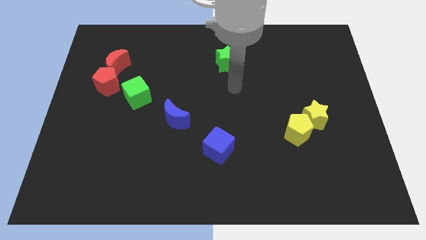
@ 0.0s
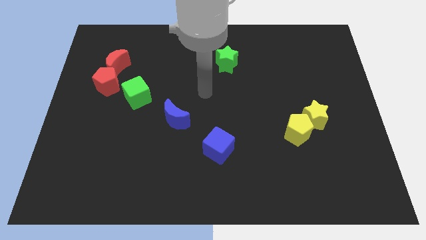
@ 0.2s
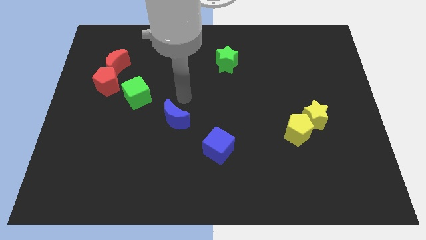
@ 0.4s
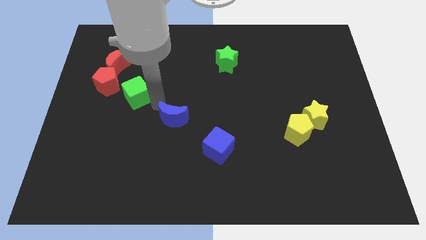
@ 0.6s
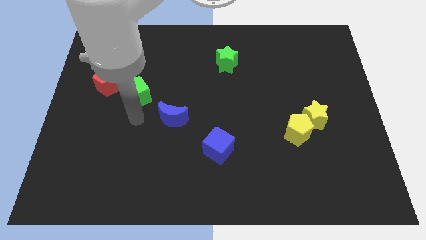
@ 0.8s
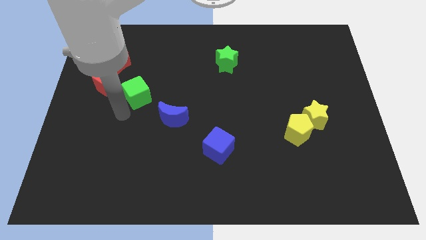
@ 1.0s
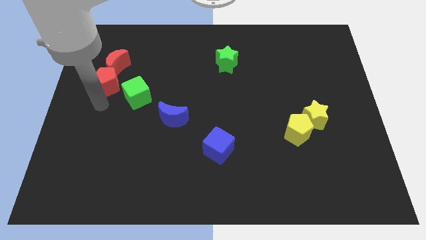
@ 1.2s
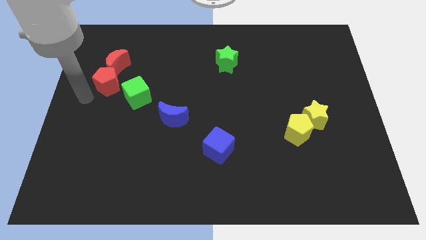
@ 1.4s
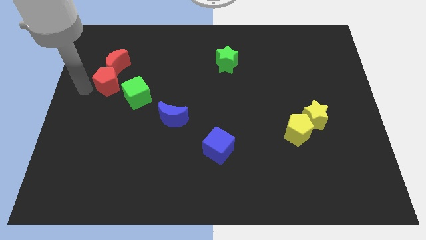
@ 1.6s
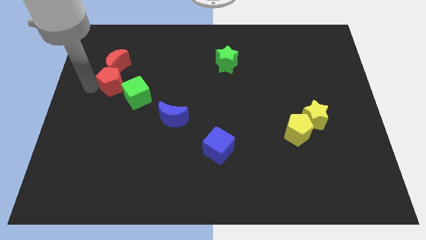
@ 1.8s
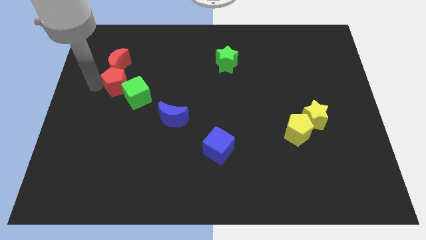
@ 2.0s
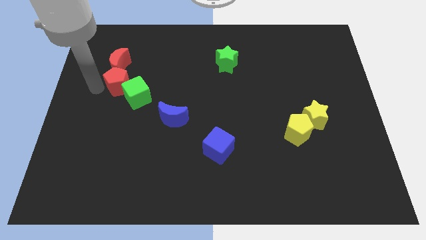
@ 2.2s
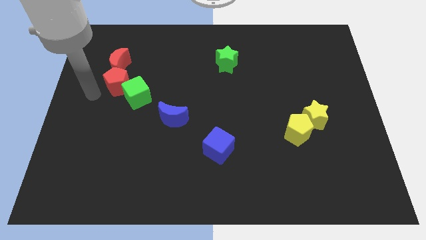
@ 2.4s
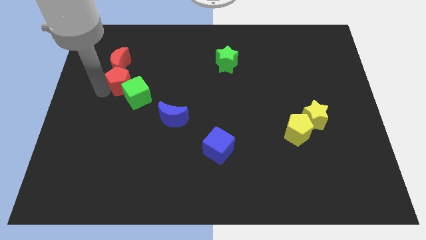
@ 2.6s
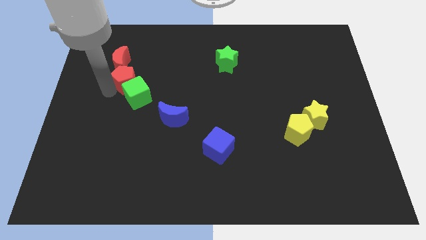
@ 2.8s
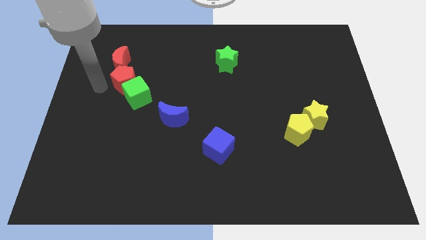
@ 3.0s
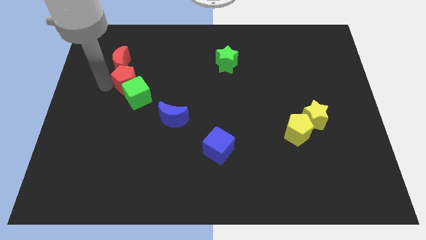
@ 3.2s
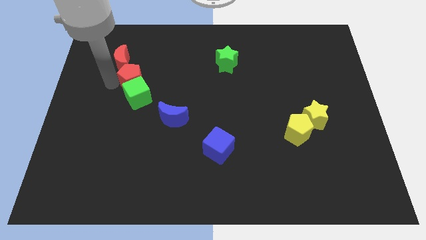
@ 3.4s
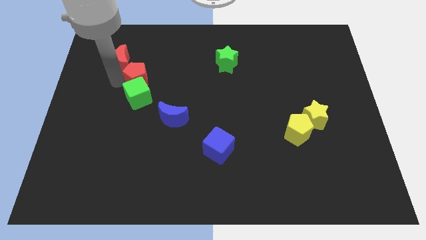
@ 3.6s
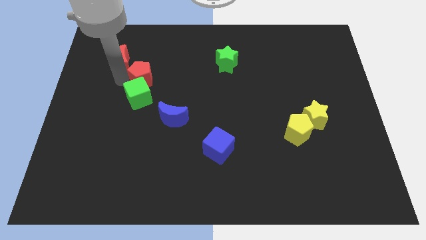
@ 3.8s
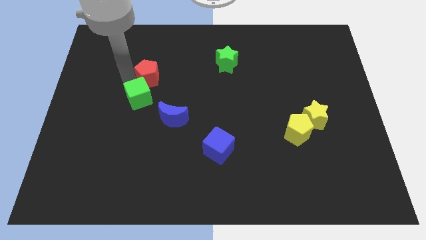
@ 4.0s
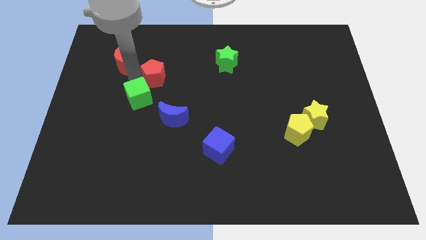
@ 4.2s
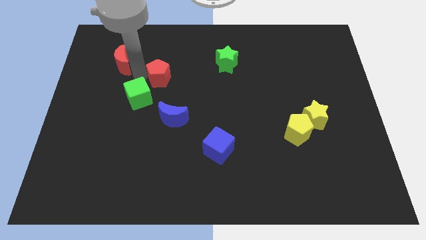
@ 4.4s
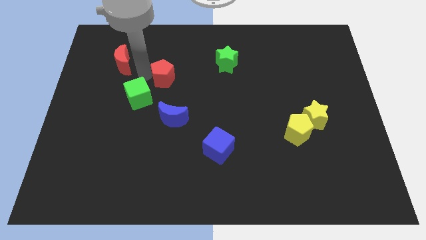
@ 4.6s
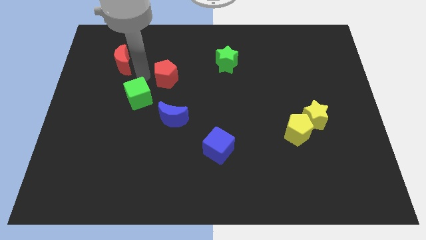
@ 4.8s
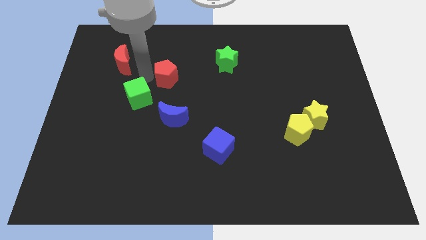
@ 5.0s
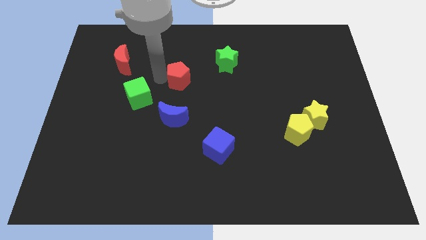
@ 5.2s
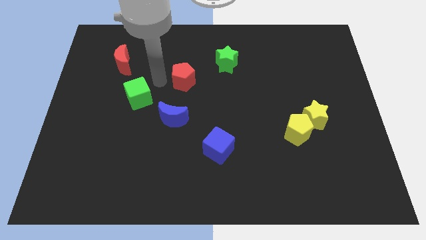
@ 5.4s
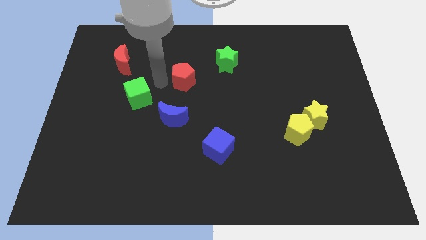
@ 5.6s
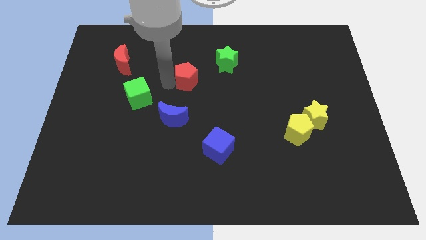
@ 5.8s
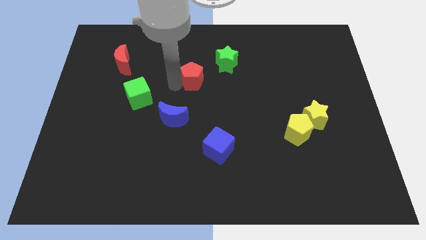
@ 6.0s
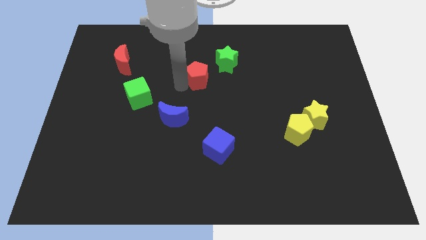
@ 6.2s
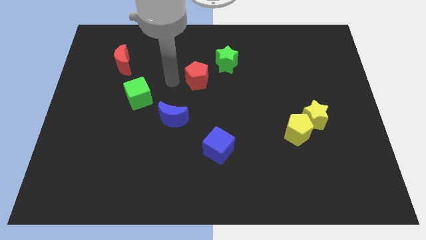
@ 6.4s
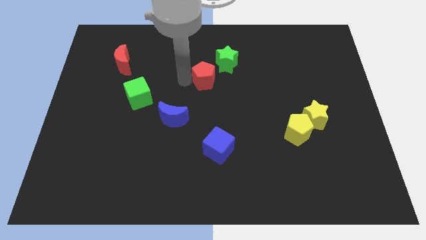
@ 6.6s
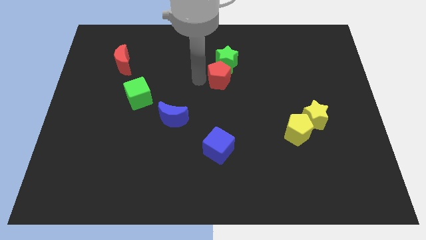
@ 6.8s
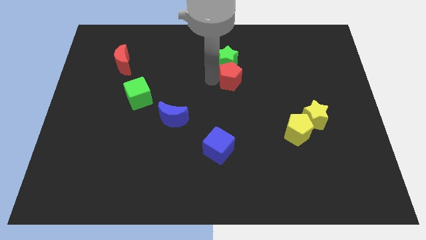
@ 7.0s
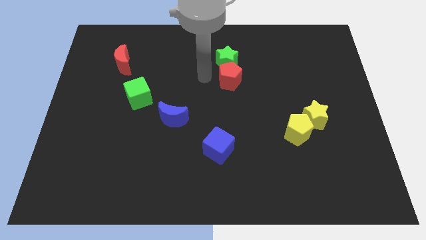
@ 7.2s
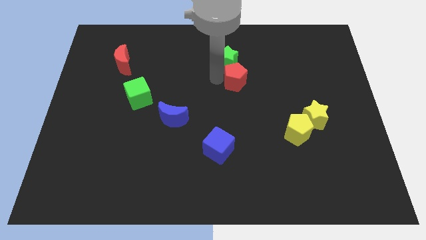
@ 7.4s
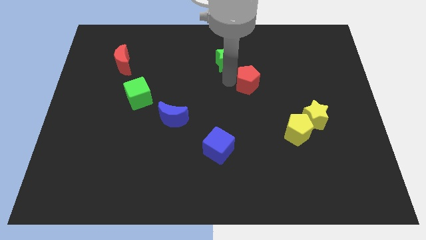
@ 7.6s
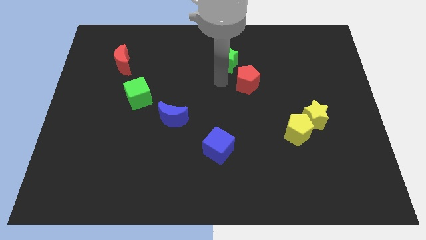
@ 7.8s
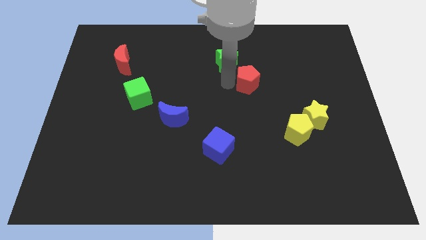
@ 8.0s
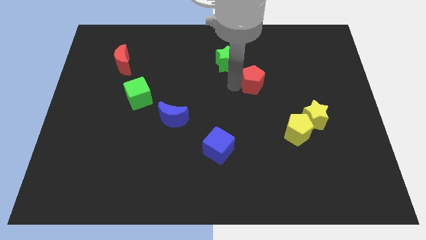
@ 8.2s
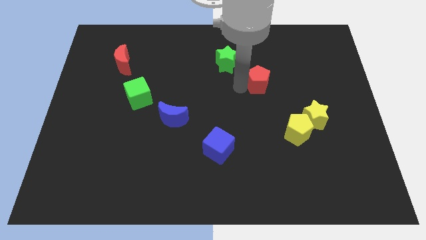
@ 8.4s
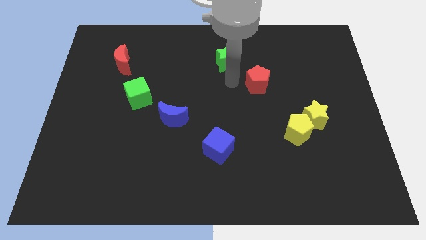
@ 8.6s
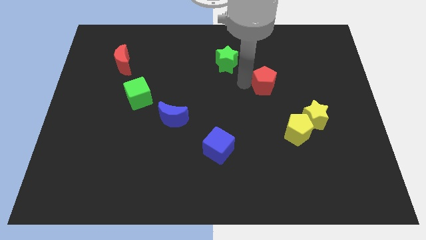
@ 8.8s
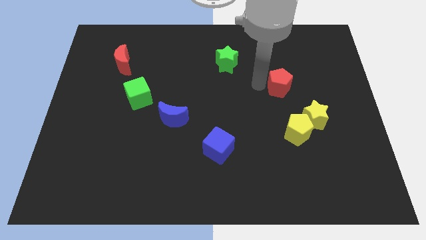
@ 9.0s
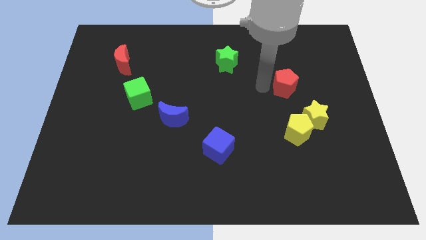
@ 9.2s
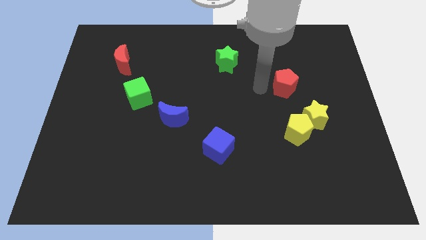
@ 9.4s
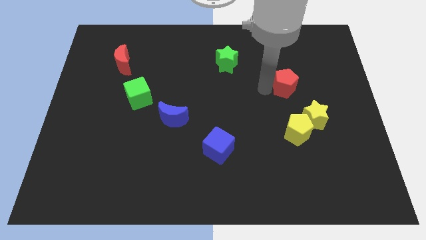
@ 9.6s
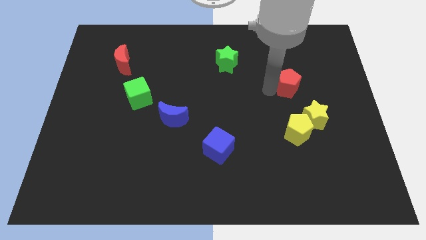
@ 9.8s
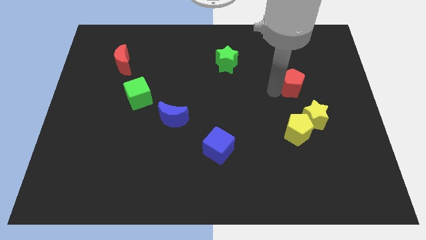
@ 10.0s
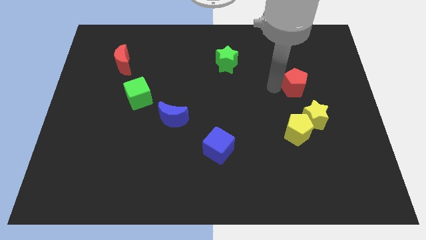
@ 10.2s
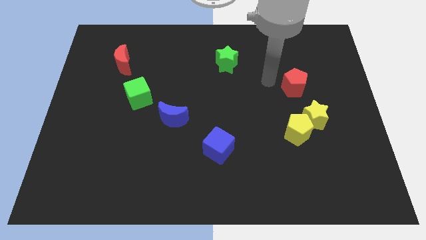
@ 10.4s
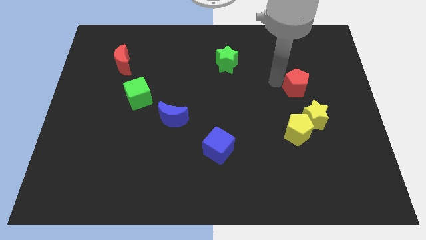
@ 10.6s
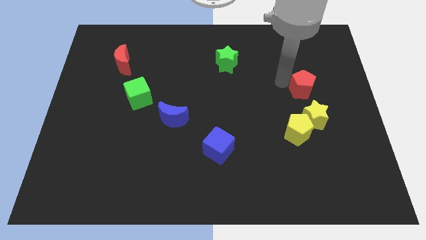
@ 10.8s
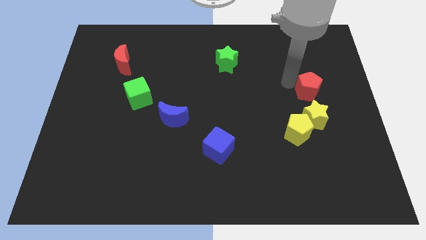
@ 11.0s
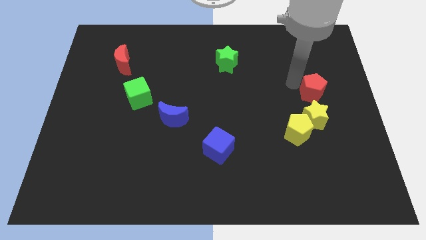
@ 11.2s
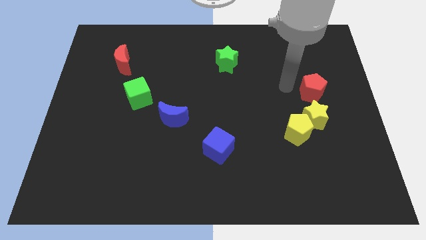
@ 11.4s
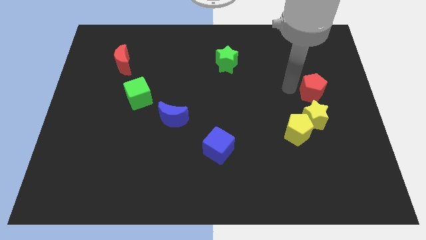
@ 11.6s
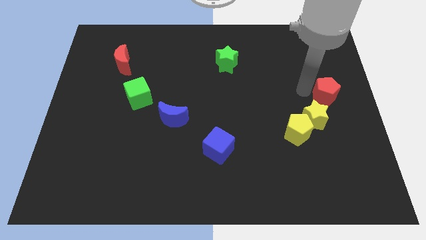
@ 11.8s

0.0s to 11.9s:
move the red pentagon to the right side of the board

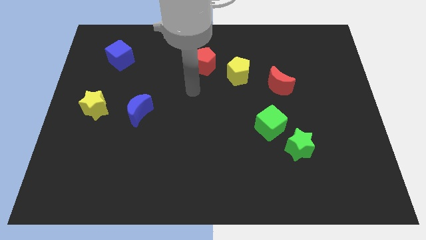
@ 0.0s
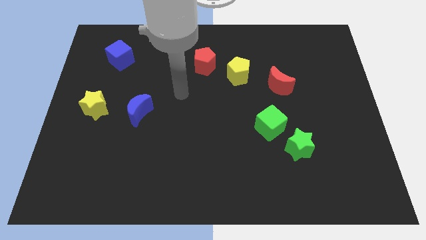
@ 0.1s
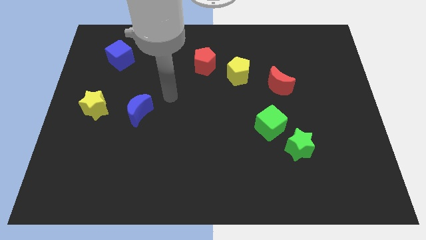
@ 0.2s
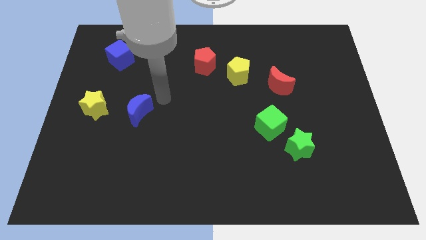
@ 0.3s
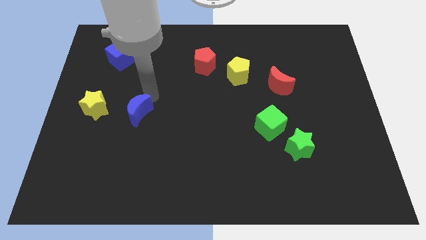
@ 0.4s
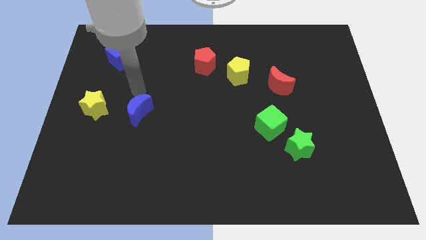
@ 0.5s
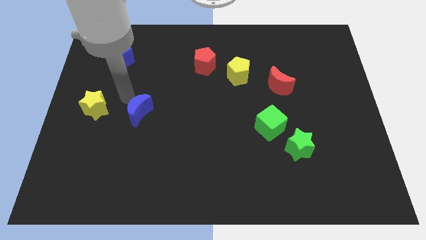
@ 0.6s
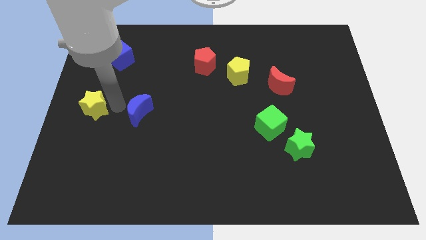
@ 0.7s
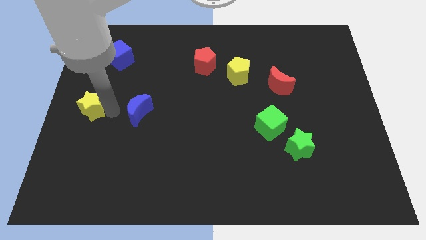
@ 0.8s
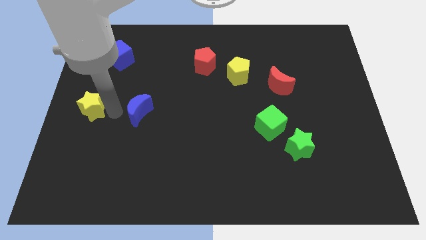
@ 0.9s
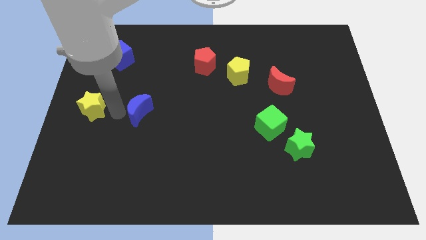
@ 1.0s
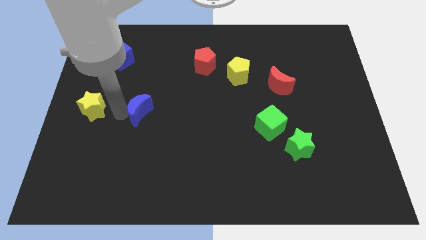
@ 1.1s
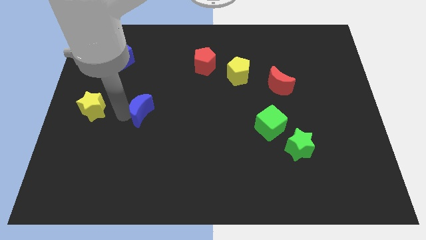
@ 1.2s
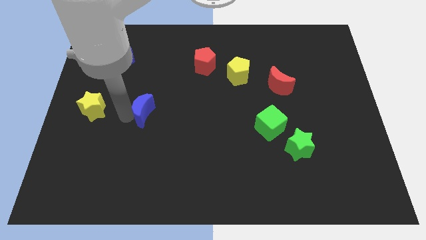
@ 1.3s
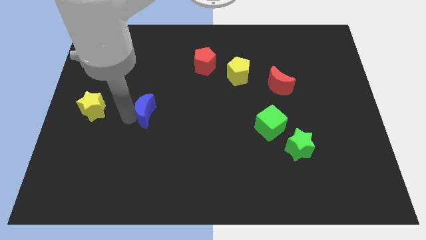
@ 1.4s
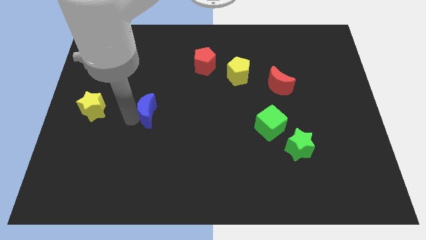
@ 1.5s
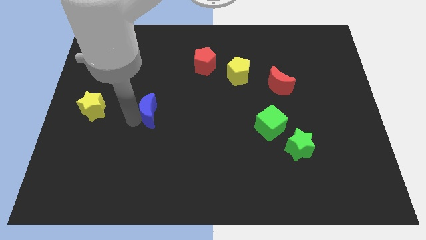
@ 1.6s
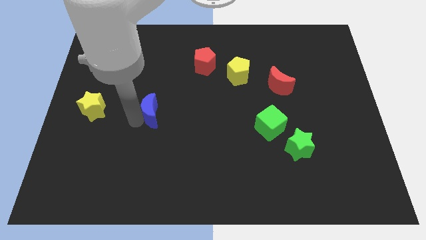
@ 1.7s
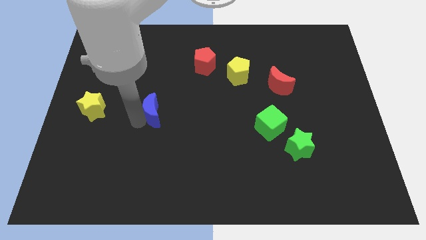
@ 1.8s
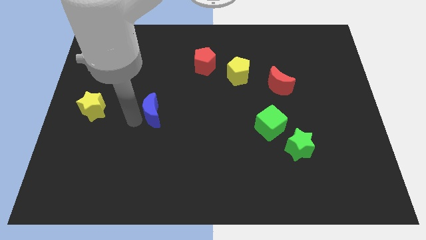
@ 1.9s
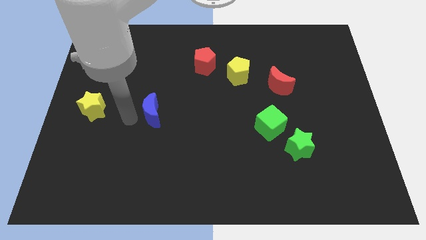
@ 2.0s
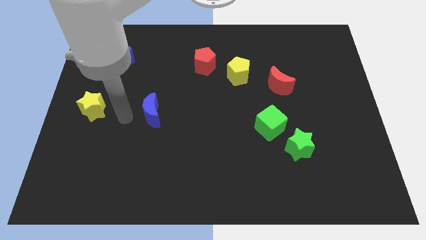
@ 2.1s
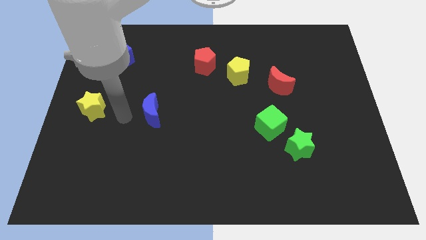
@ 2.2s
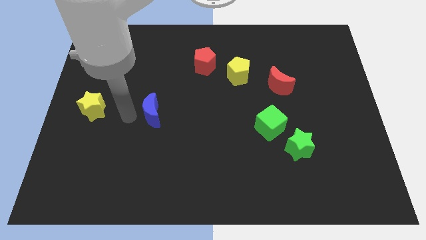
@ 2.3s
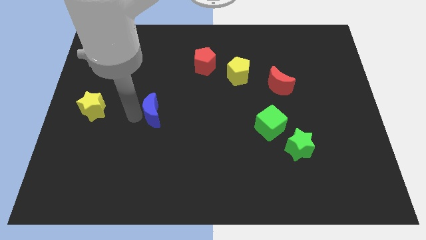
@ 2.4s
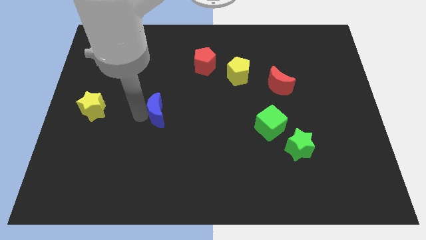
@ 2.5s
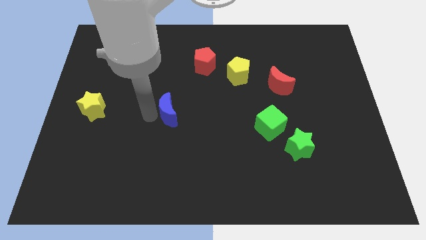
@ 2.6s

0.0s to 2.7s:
push the blue moon to the center
